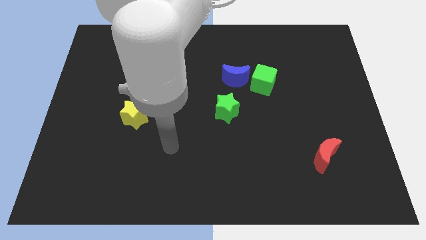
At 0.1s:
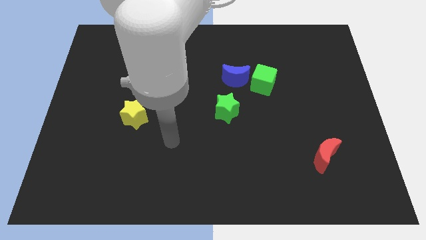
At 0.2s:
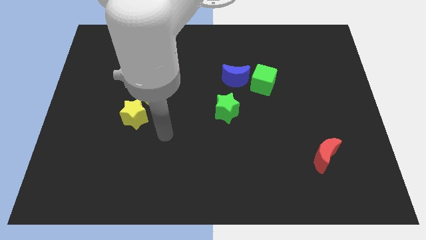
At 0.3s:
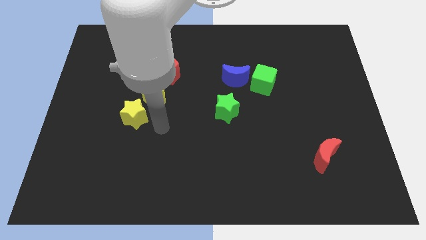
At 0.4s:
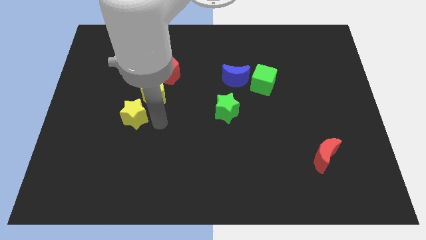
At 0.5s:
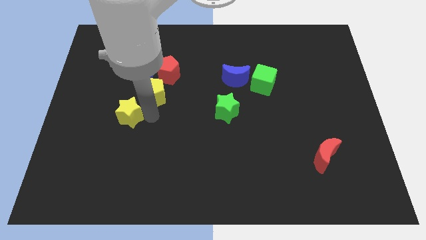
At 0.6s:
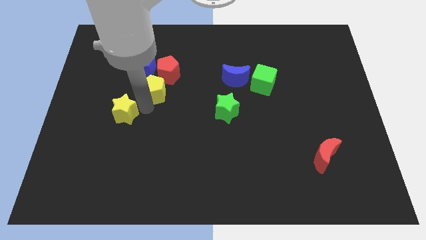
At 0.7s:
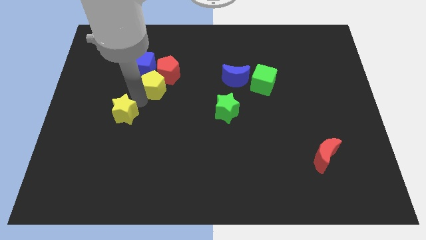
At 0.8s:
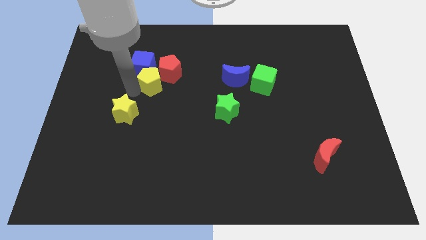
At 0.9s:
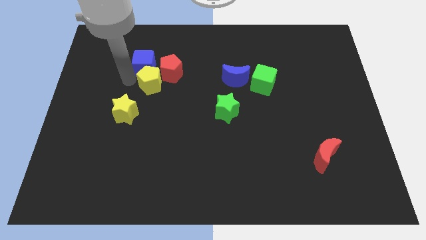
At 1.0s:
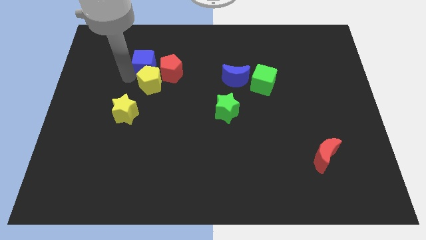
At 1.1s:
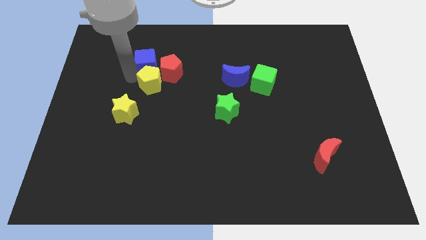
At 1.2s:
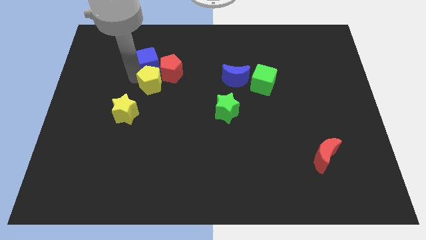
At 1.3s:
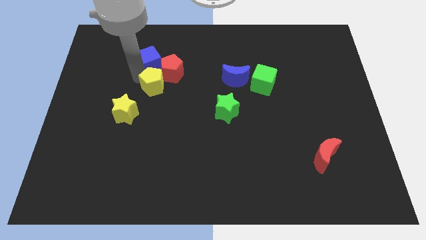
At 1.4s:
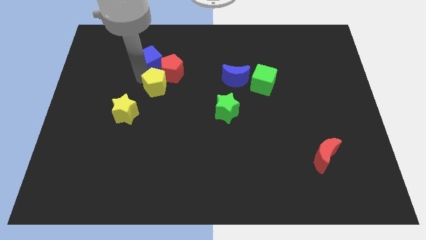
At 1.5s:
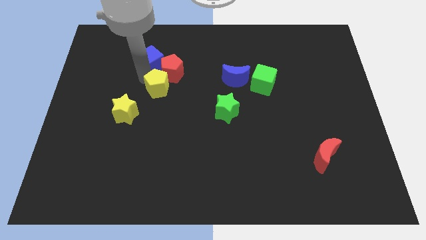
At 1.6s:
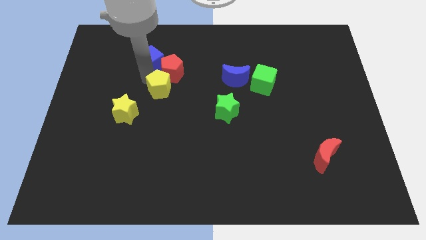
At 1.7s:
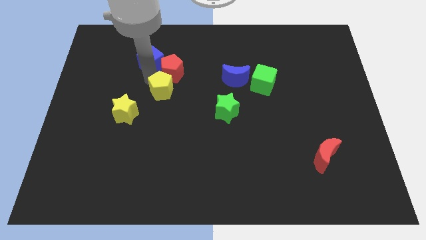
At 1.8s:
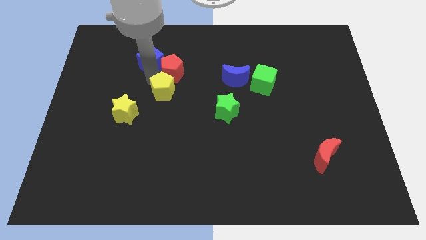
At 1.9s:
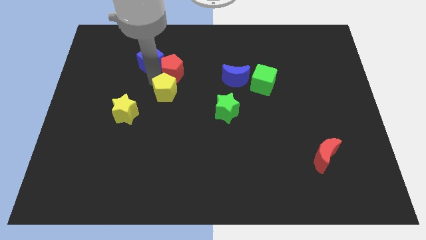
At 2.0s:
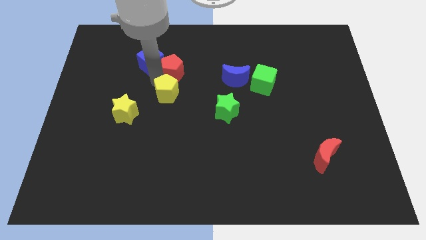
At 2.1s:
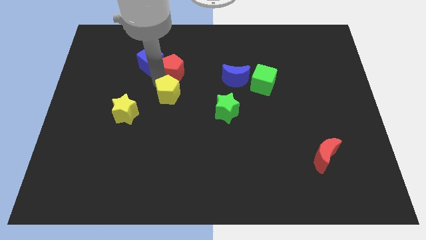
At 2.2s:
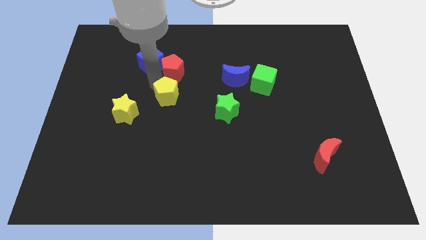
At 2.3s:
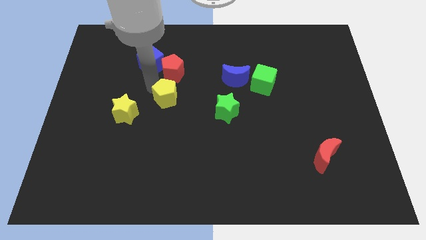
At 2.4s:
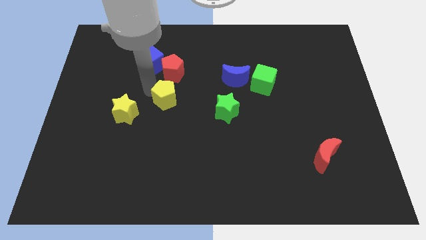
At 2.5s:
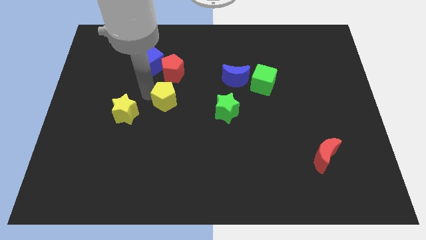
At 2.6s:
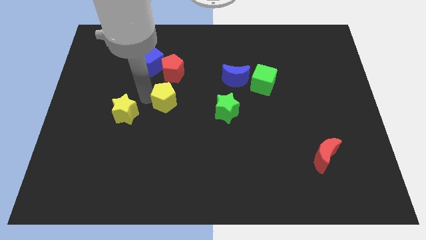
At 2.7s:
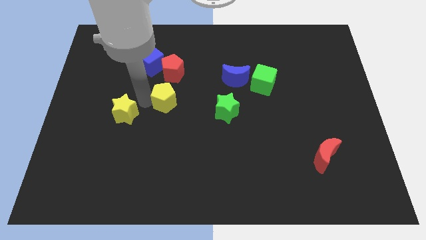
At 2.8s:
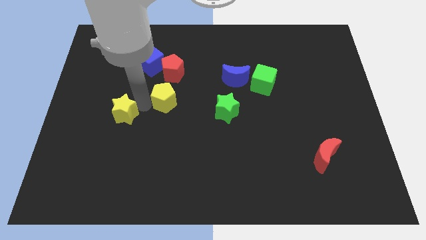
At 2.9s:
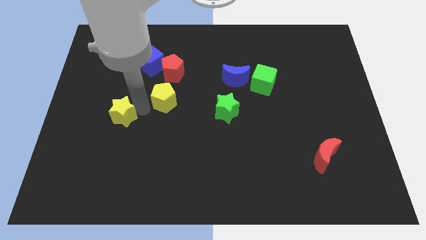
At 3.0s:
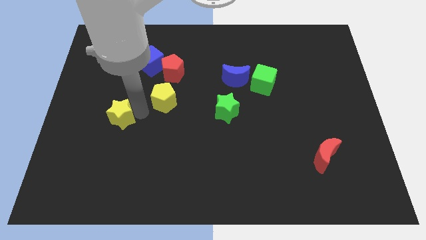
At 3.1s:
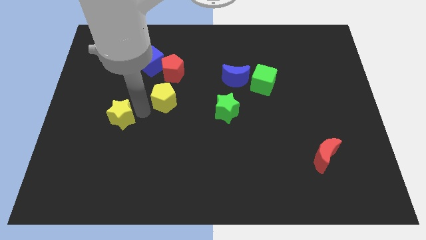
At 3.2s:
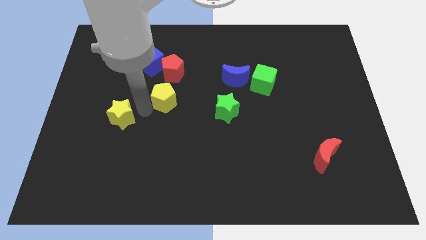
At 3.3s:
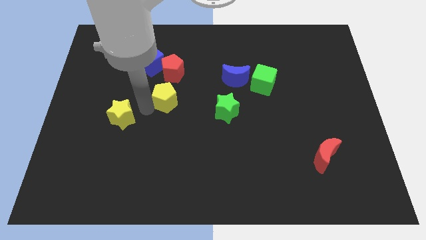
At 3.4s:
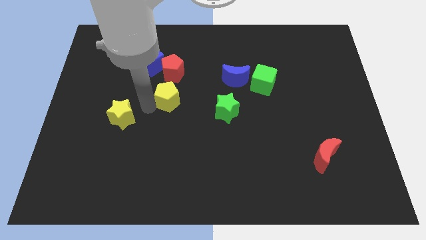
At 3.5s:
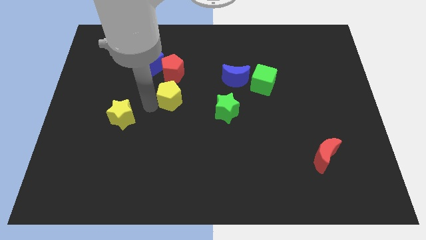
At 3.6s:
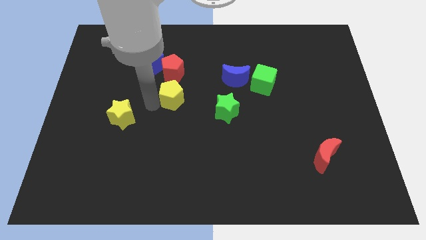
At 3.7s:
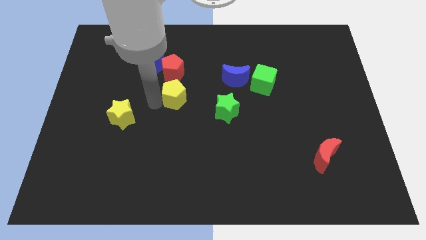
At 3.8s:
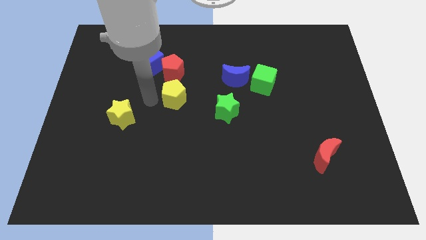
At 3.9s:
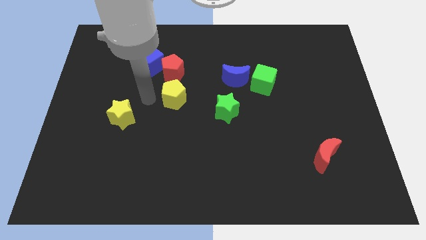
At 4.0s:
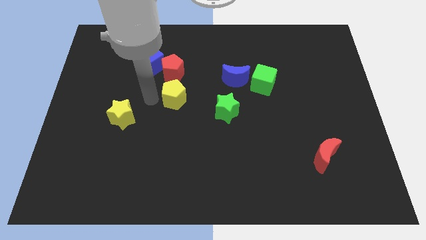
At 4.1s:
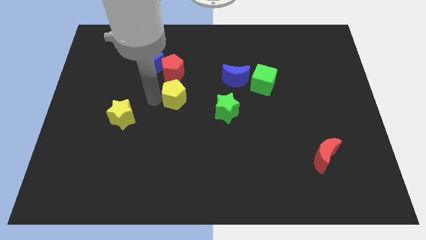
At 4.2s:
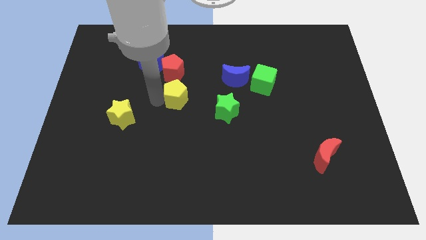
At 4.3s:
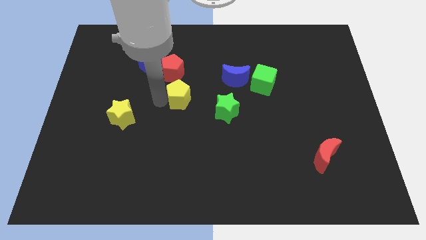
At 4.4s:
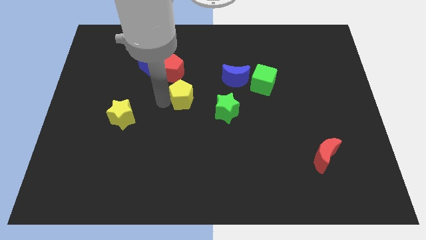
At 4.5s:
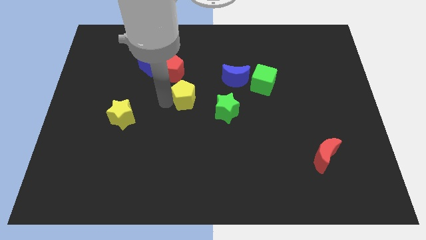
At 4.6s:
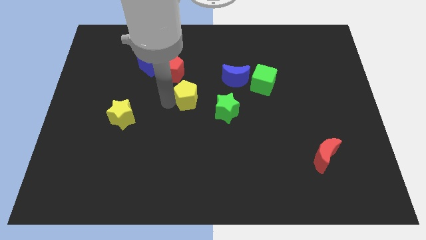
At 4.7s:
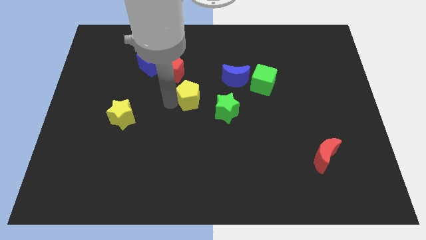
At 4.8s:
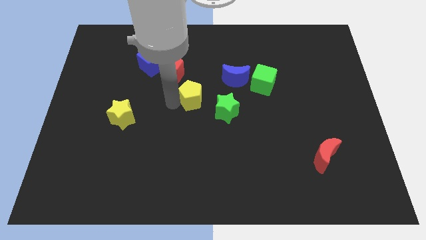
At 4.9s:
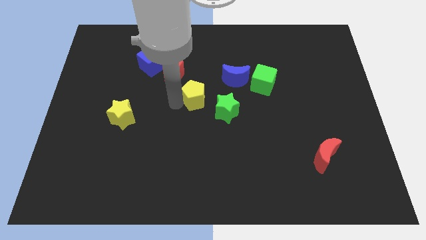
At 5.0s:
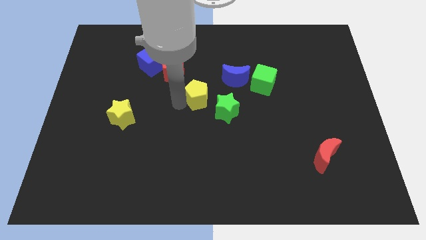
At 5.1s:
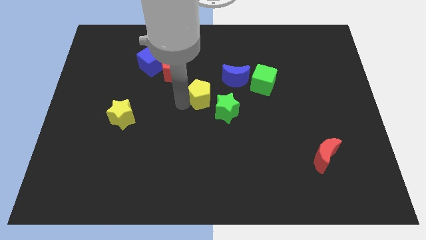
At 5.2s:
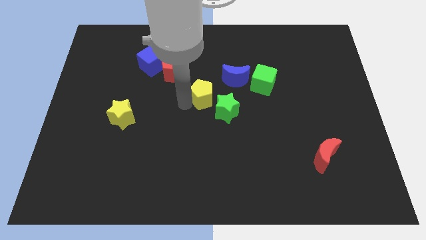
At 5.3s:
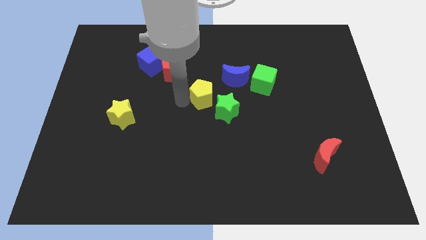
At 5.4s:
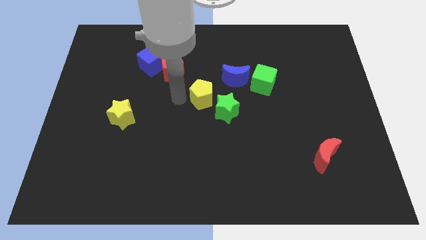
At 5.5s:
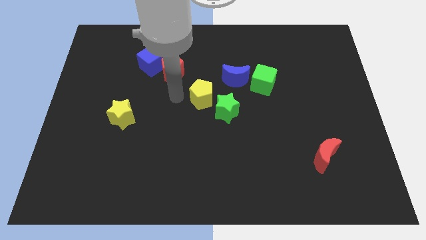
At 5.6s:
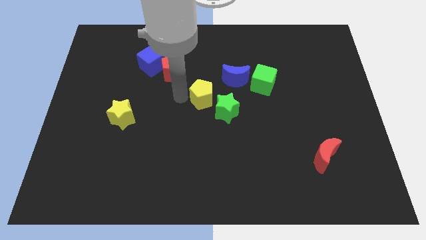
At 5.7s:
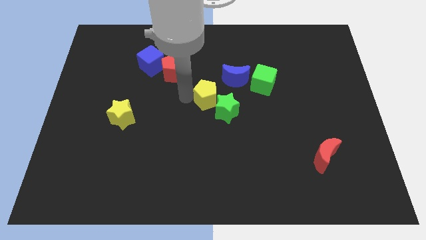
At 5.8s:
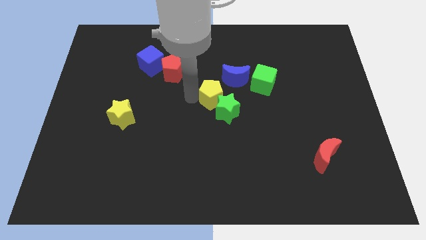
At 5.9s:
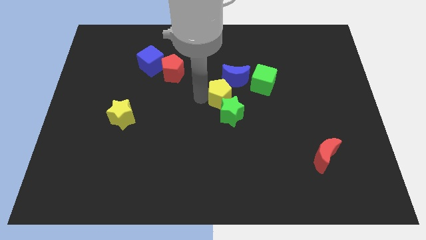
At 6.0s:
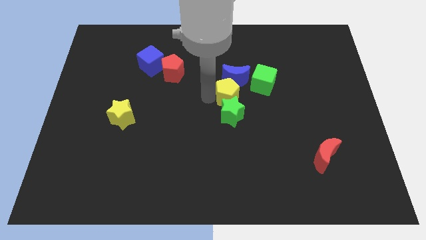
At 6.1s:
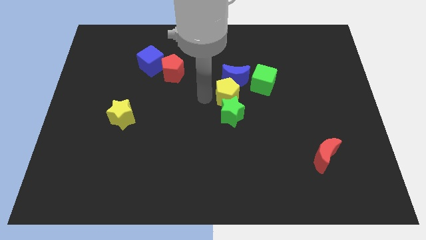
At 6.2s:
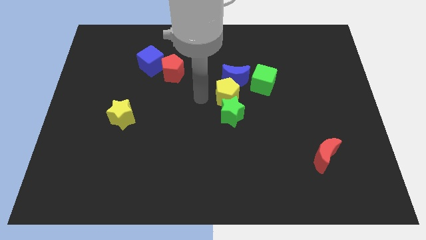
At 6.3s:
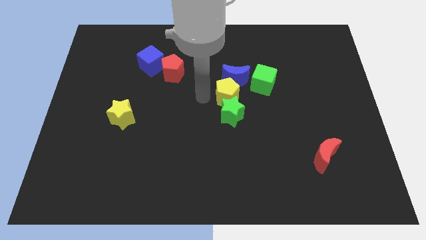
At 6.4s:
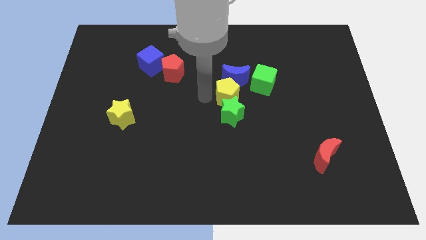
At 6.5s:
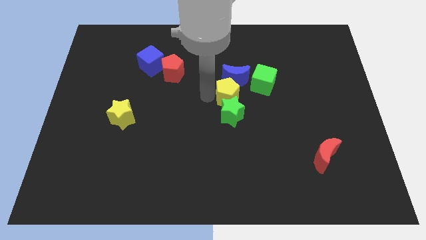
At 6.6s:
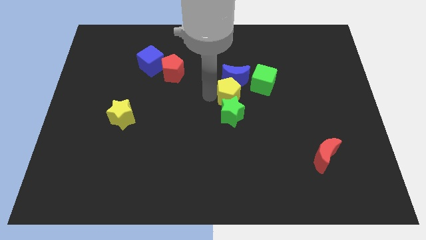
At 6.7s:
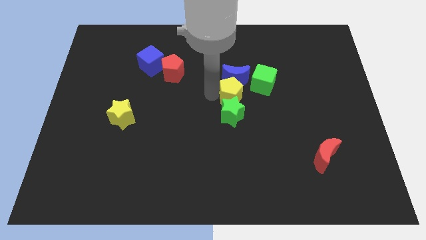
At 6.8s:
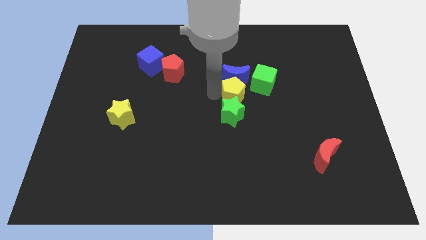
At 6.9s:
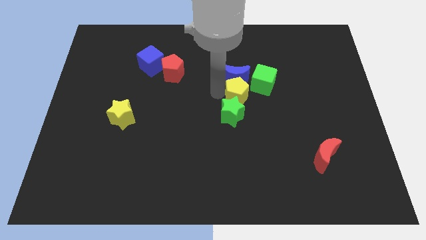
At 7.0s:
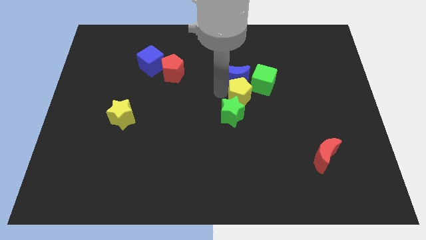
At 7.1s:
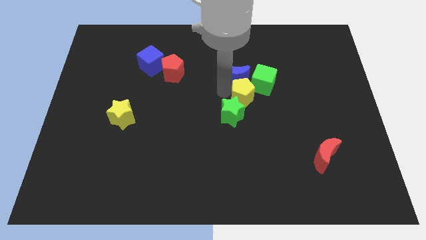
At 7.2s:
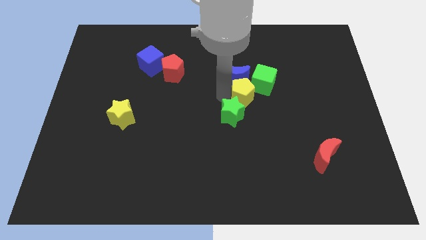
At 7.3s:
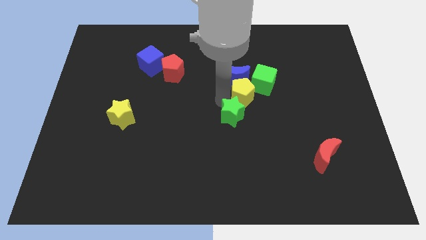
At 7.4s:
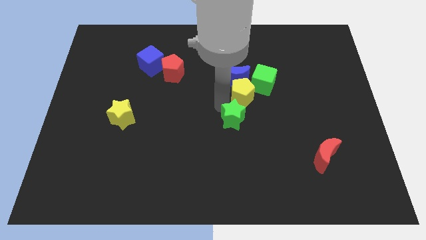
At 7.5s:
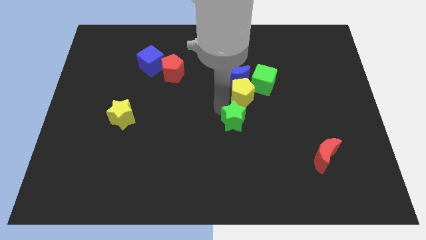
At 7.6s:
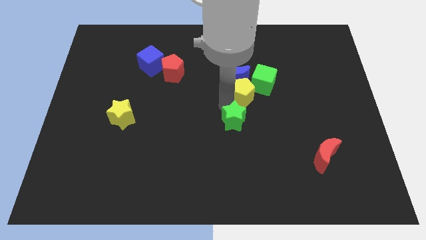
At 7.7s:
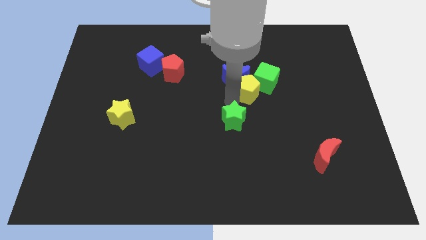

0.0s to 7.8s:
move the yellow pentagon towards the green cube
